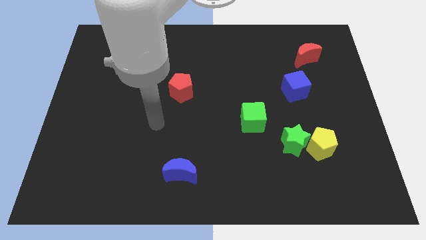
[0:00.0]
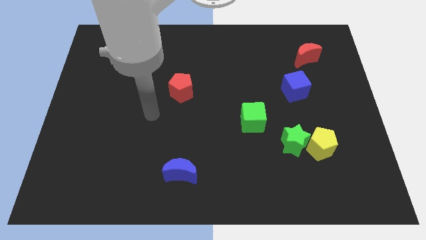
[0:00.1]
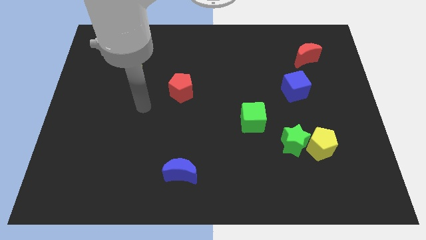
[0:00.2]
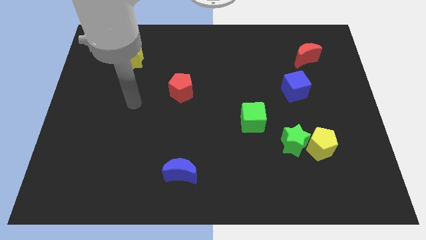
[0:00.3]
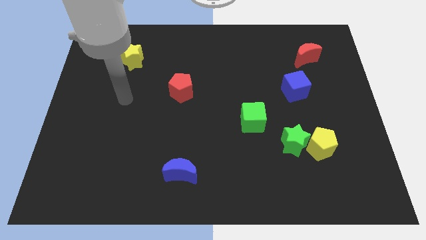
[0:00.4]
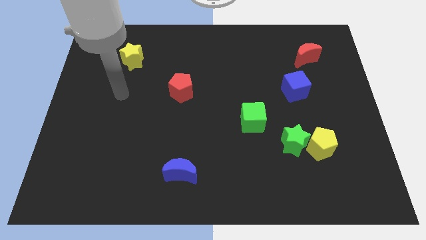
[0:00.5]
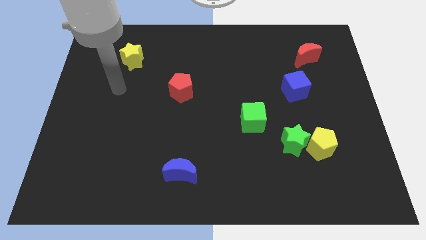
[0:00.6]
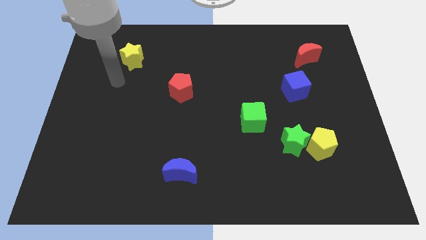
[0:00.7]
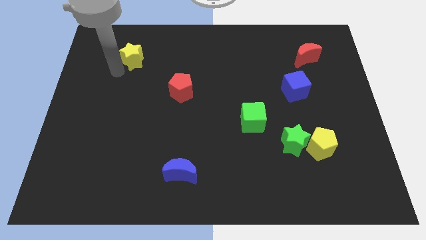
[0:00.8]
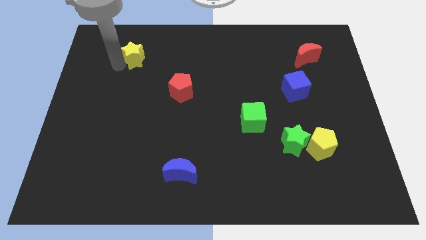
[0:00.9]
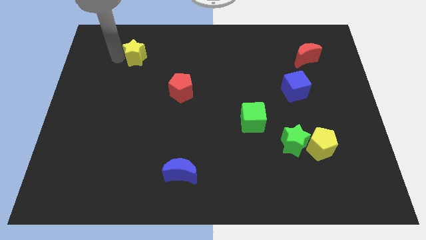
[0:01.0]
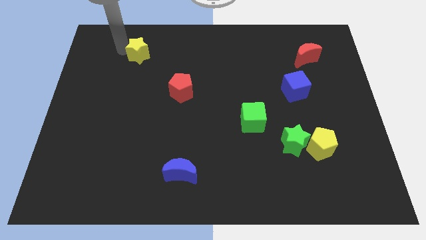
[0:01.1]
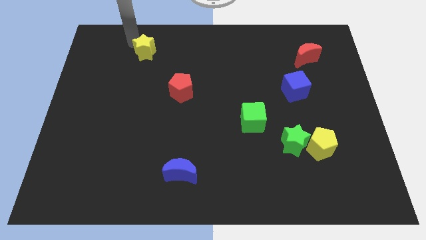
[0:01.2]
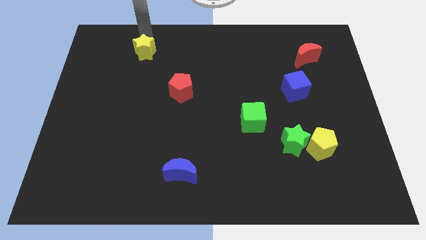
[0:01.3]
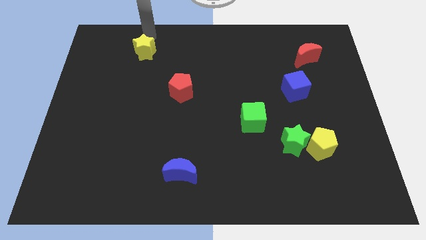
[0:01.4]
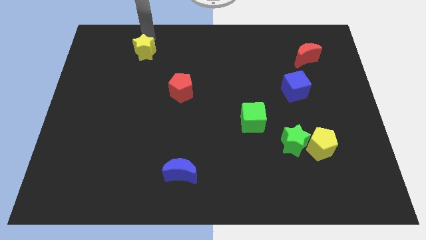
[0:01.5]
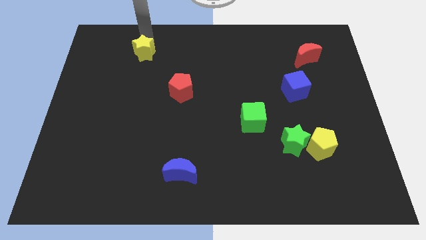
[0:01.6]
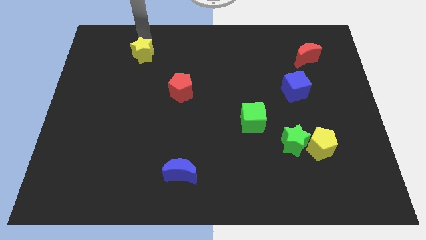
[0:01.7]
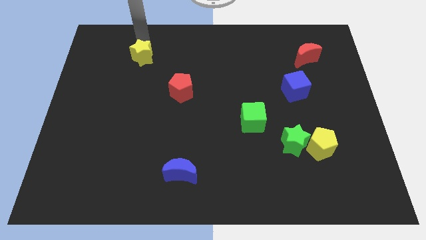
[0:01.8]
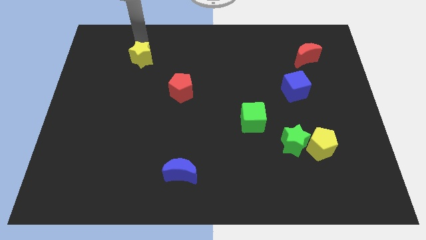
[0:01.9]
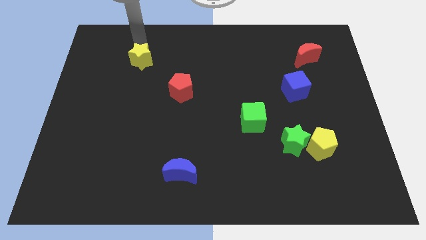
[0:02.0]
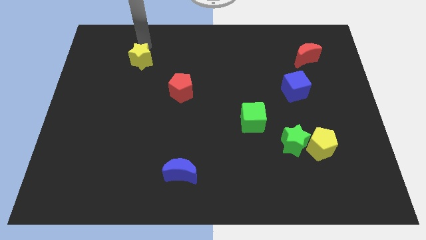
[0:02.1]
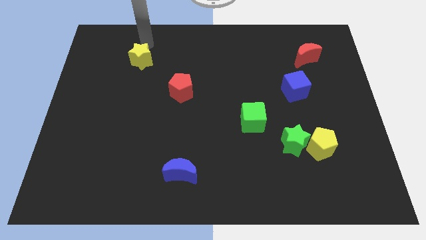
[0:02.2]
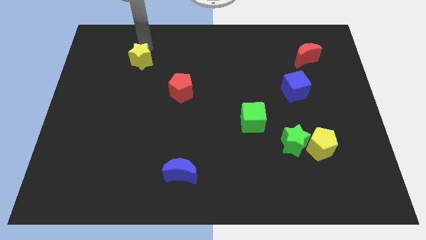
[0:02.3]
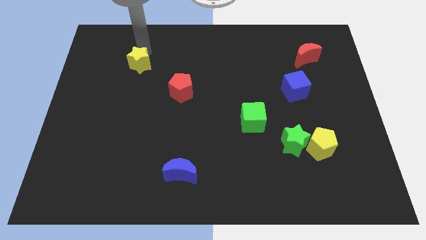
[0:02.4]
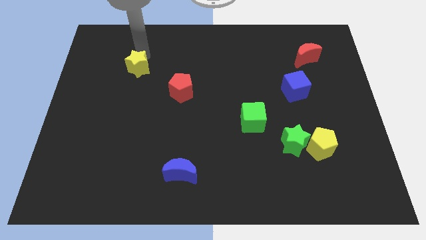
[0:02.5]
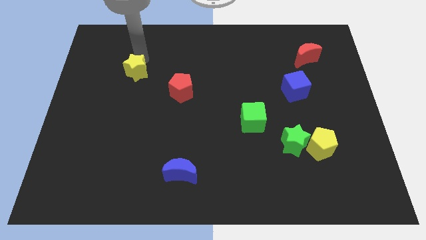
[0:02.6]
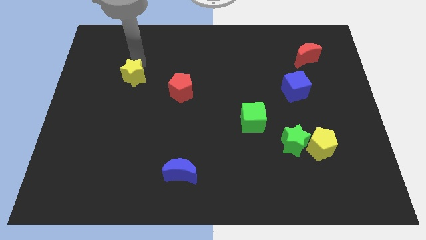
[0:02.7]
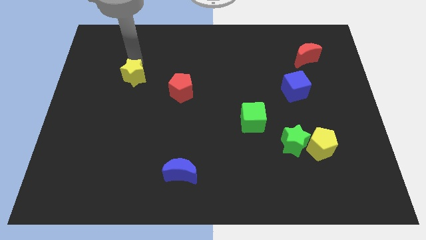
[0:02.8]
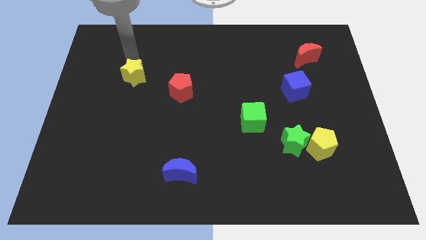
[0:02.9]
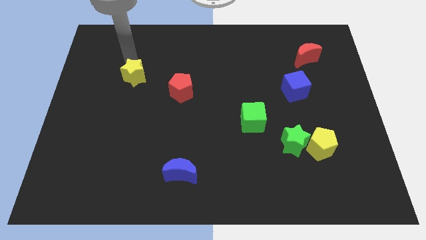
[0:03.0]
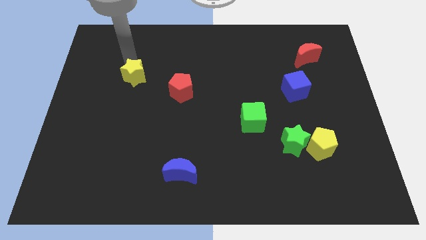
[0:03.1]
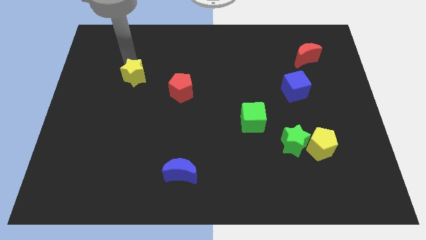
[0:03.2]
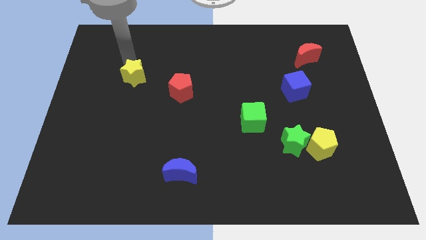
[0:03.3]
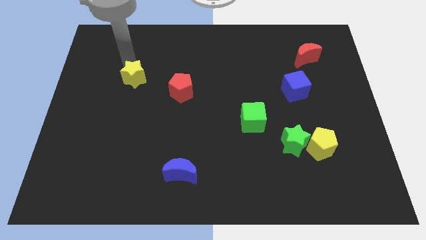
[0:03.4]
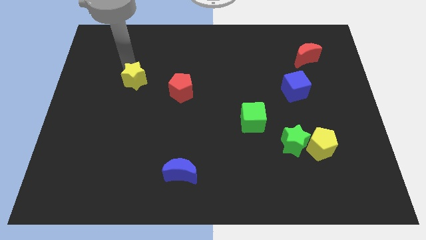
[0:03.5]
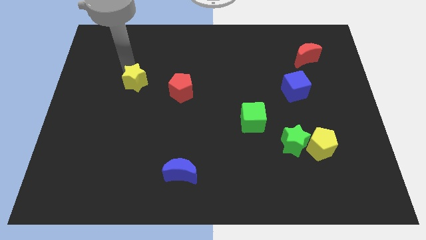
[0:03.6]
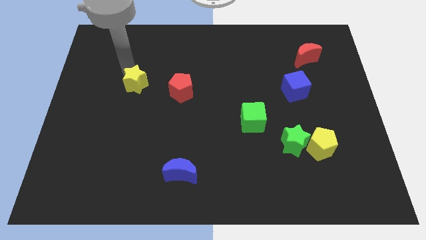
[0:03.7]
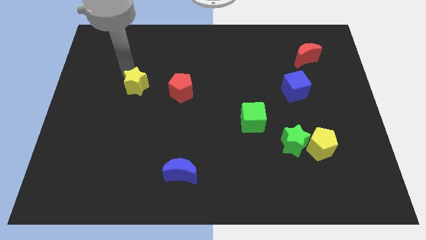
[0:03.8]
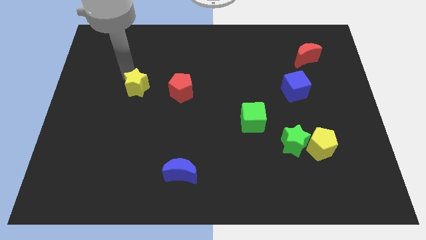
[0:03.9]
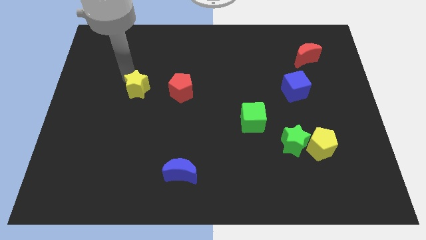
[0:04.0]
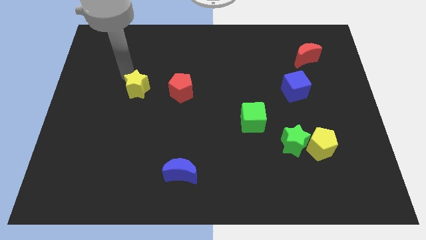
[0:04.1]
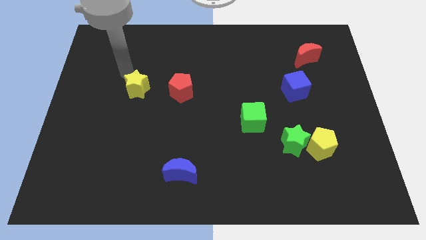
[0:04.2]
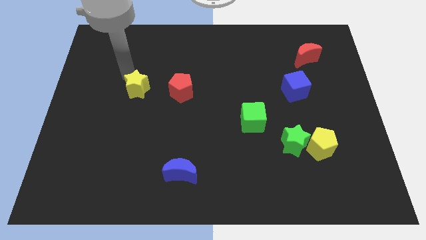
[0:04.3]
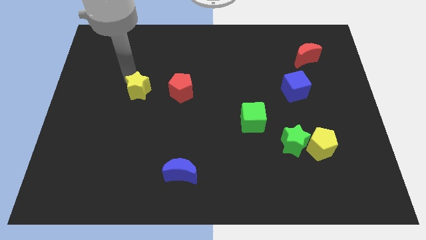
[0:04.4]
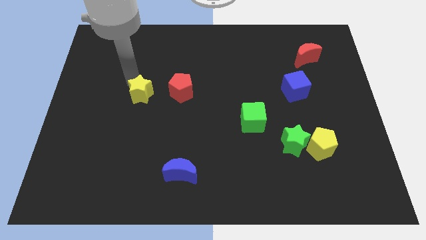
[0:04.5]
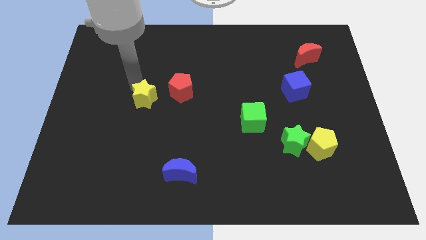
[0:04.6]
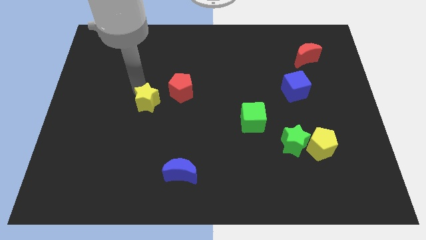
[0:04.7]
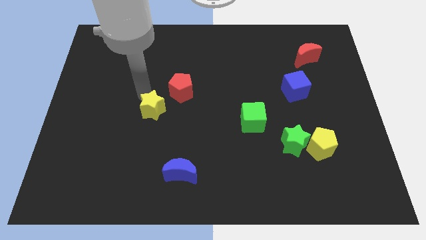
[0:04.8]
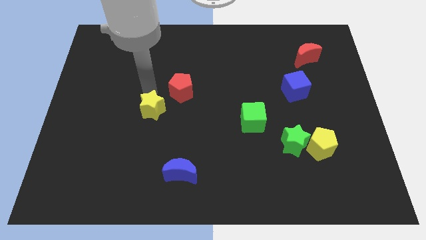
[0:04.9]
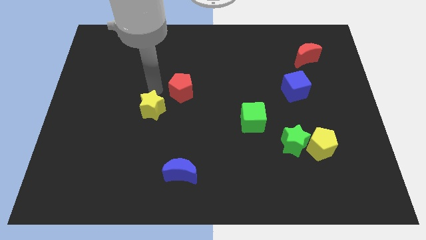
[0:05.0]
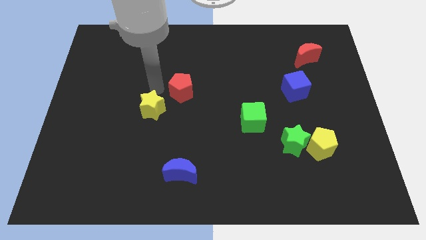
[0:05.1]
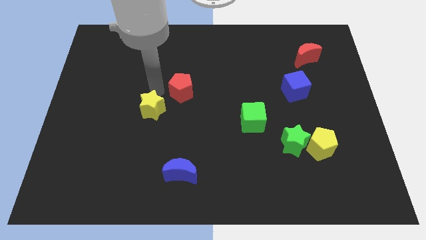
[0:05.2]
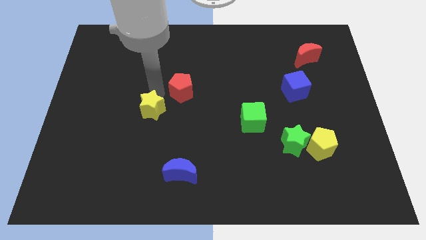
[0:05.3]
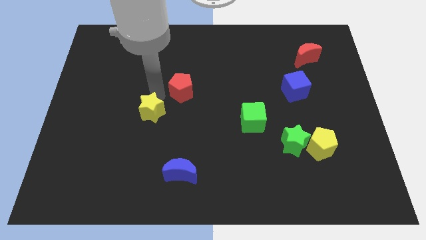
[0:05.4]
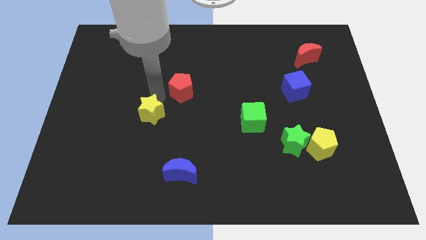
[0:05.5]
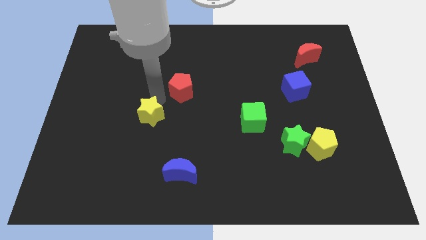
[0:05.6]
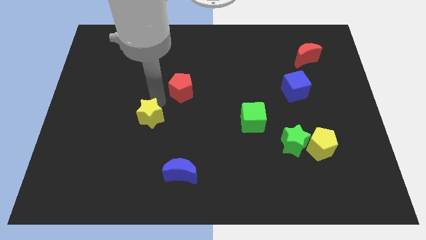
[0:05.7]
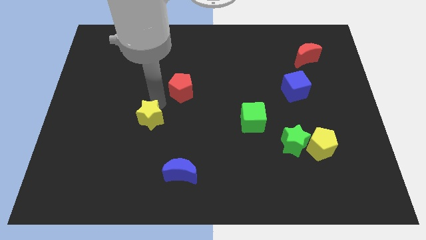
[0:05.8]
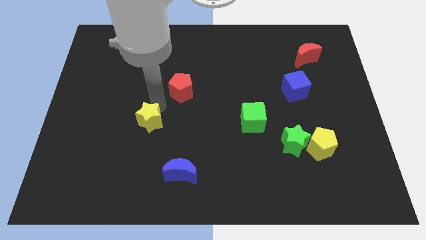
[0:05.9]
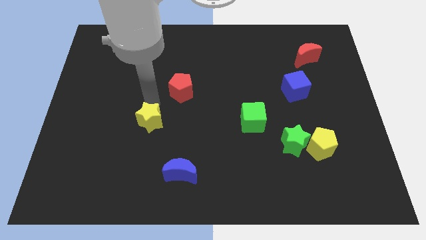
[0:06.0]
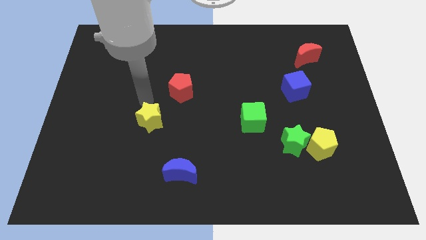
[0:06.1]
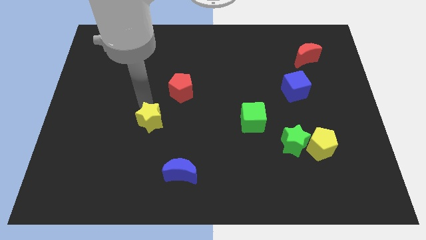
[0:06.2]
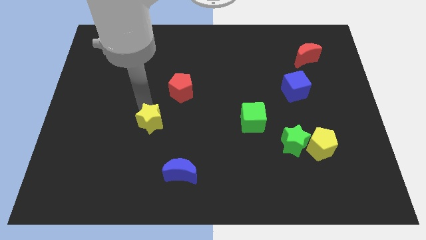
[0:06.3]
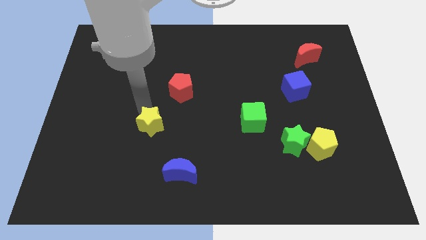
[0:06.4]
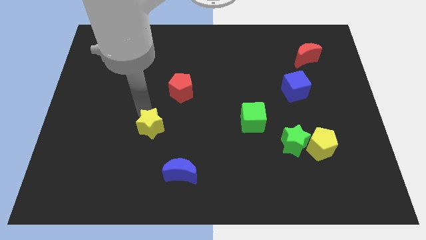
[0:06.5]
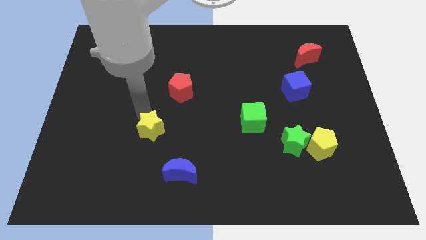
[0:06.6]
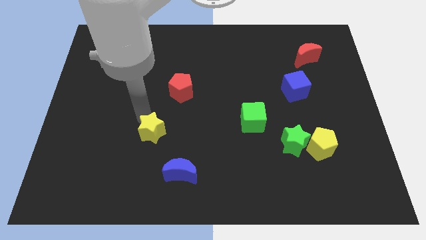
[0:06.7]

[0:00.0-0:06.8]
slide the yellow star to the top left side of the blue moon
